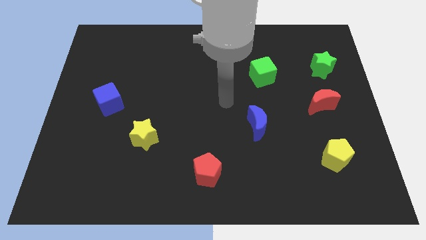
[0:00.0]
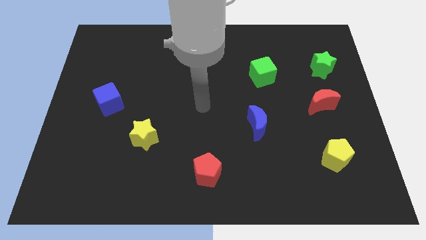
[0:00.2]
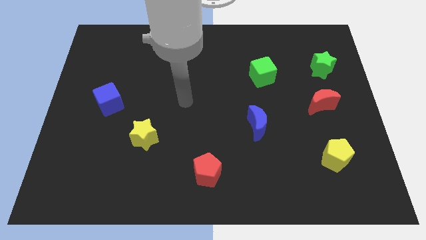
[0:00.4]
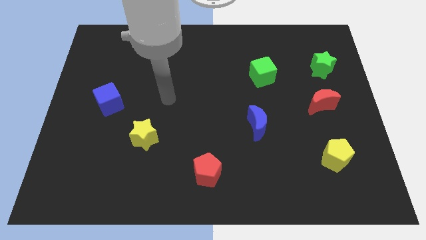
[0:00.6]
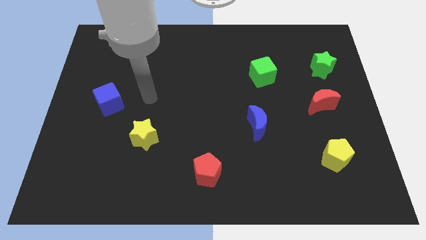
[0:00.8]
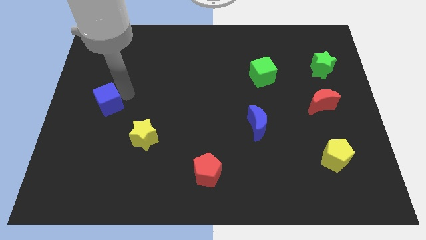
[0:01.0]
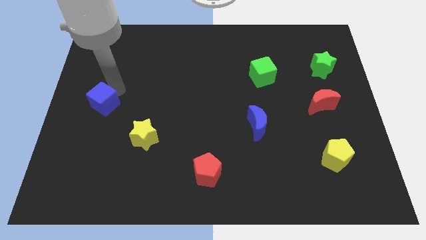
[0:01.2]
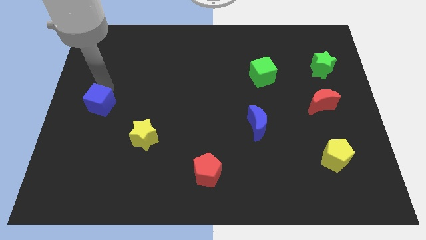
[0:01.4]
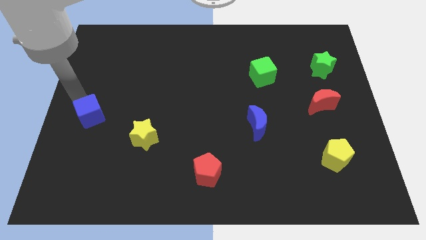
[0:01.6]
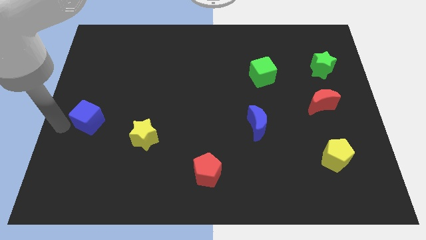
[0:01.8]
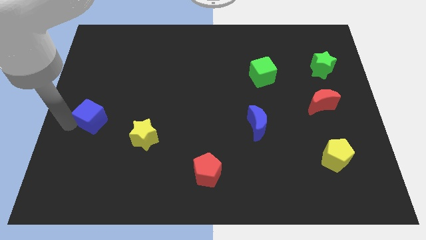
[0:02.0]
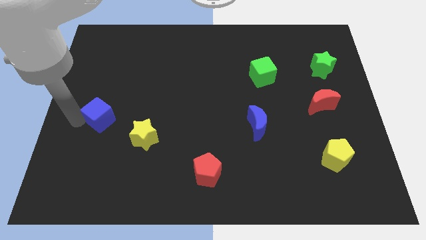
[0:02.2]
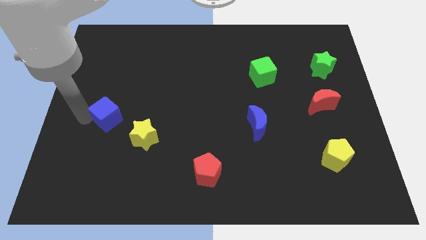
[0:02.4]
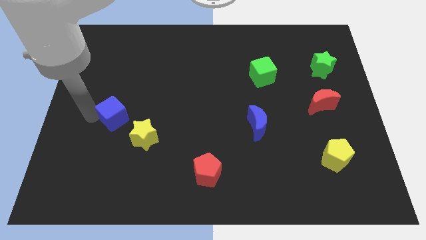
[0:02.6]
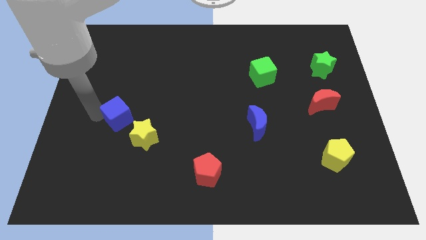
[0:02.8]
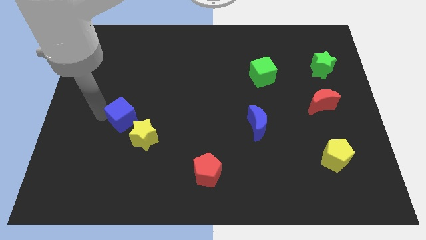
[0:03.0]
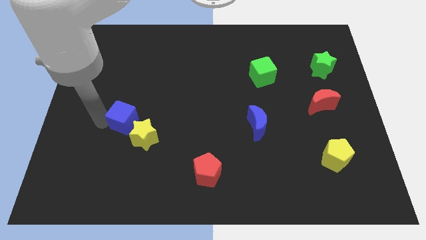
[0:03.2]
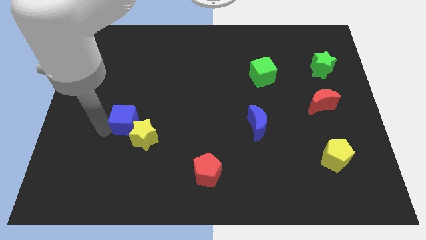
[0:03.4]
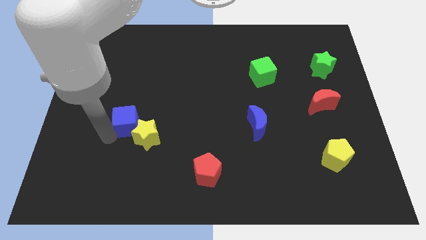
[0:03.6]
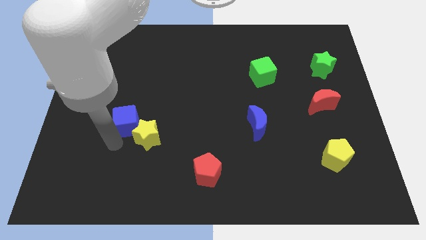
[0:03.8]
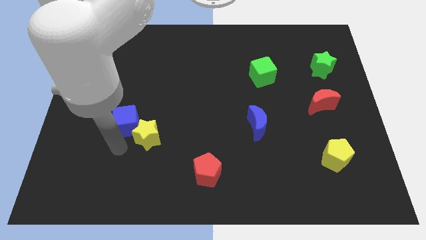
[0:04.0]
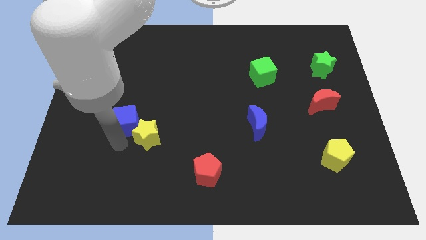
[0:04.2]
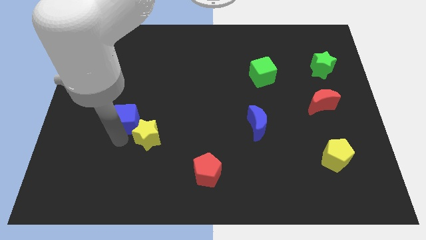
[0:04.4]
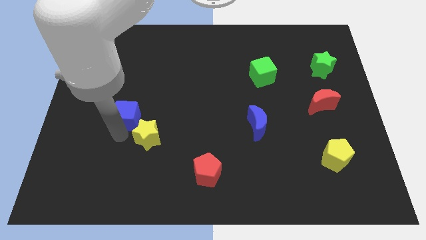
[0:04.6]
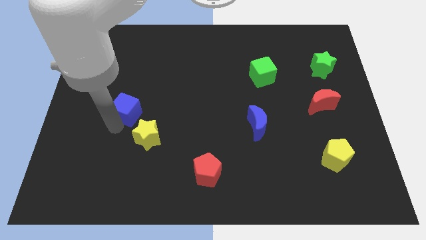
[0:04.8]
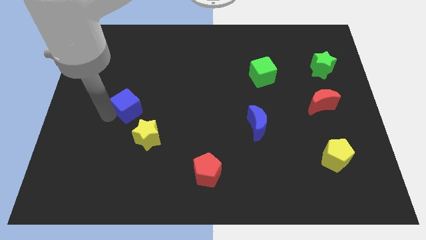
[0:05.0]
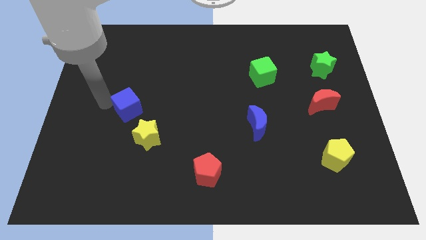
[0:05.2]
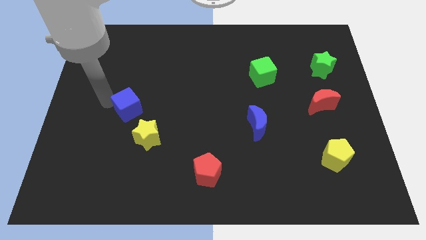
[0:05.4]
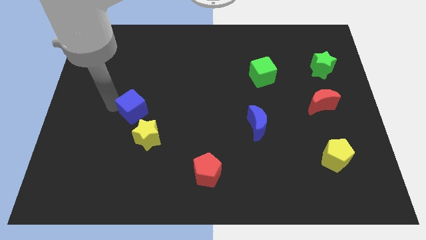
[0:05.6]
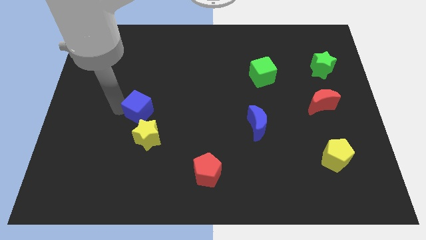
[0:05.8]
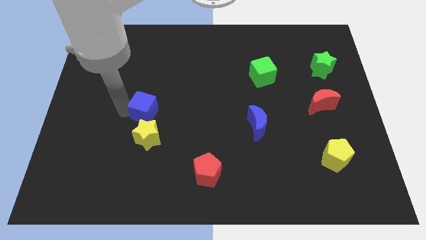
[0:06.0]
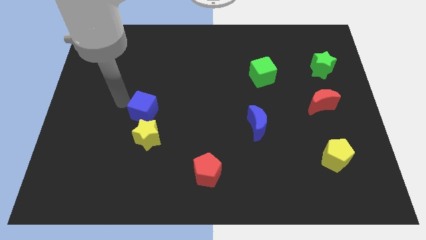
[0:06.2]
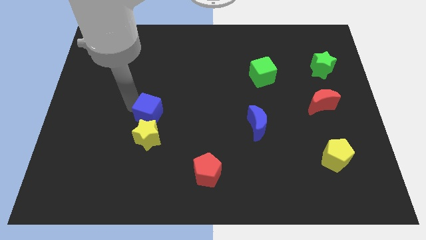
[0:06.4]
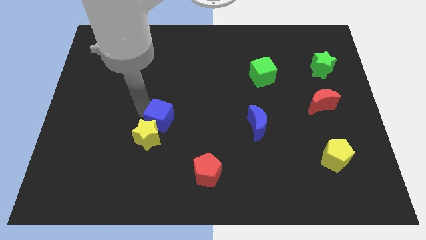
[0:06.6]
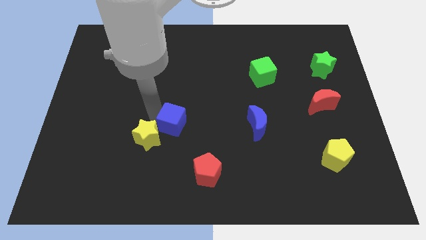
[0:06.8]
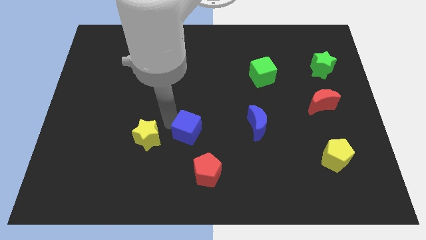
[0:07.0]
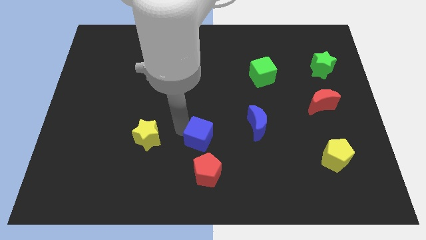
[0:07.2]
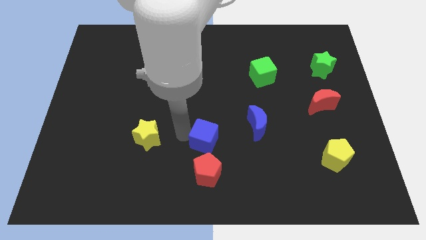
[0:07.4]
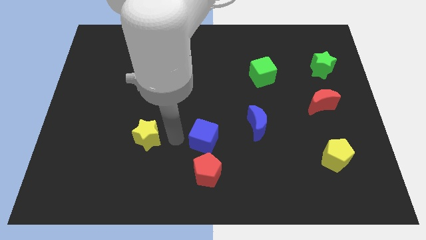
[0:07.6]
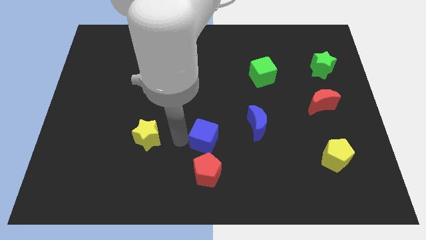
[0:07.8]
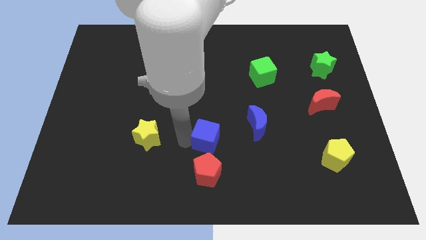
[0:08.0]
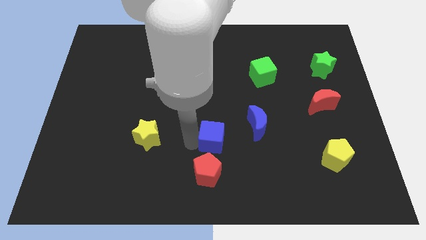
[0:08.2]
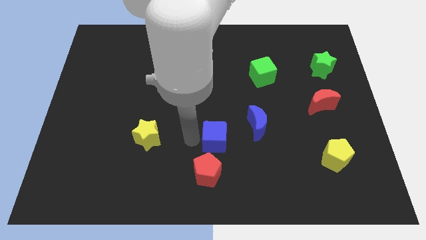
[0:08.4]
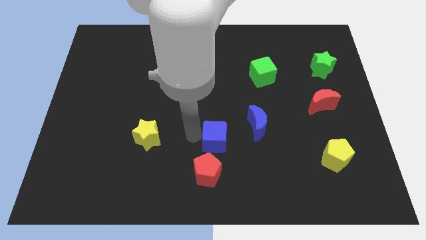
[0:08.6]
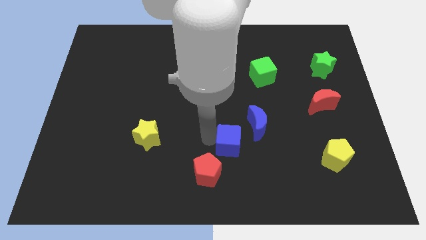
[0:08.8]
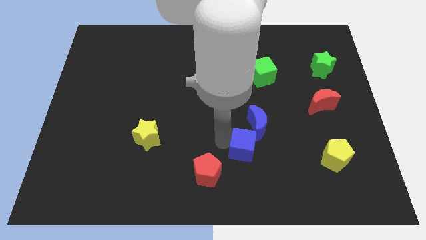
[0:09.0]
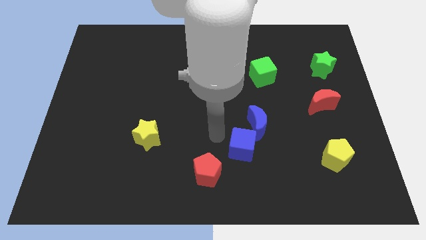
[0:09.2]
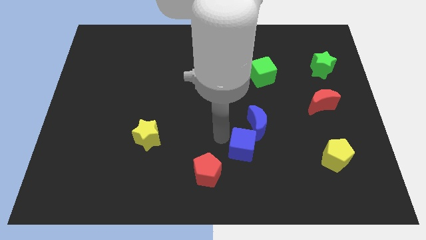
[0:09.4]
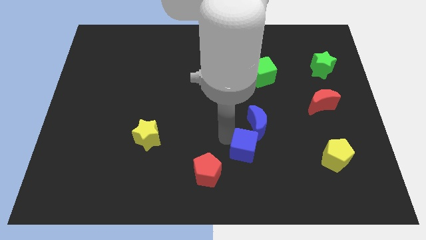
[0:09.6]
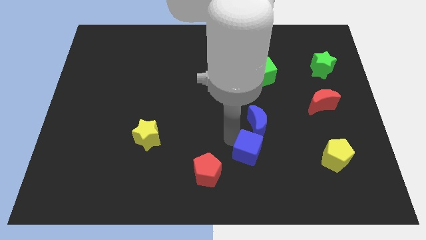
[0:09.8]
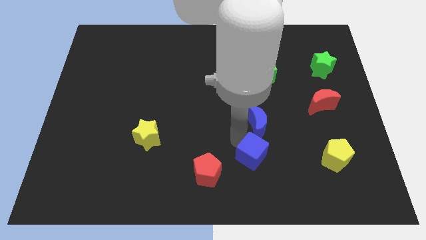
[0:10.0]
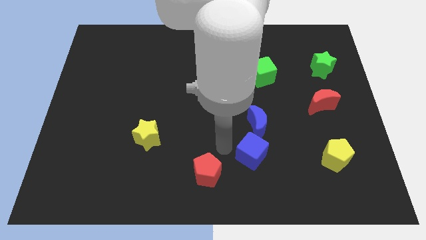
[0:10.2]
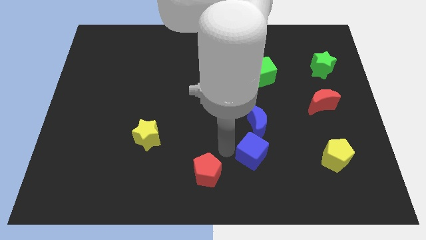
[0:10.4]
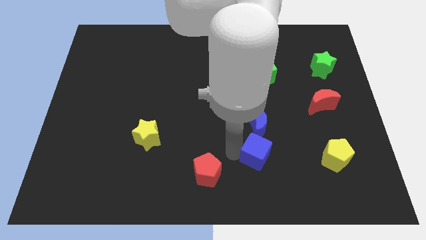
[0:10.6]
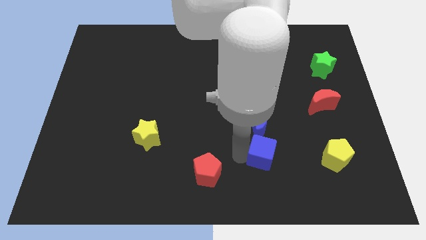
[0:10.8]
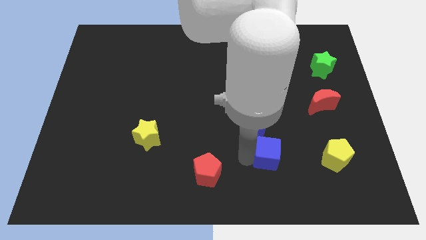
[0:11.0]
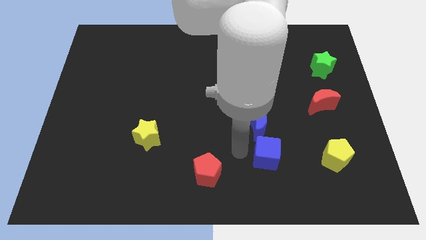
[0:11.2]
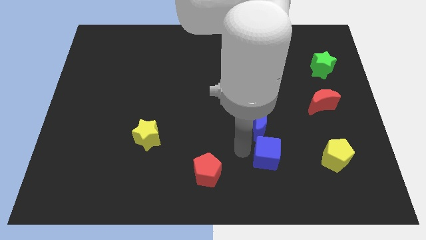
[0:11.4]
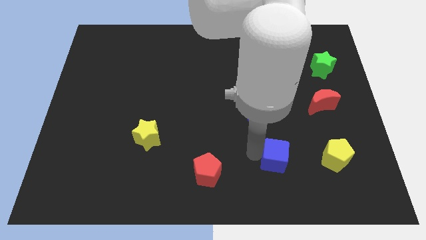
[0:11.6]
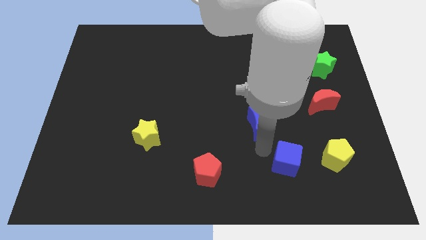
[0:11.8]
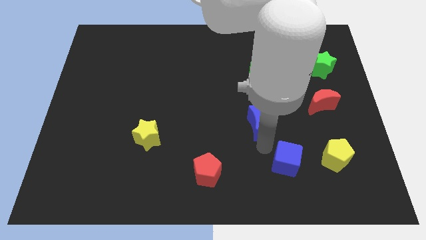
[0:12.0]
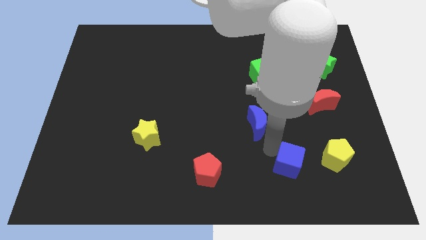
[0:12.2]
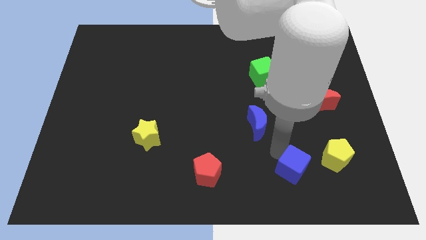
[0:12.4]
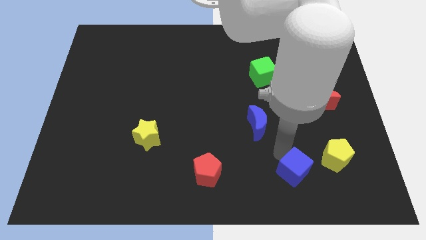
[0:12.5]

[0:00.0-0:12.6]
put the blue cube diagonally down and to the left of the yellow pentagon
